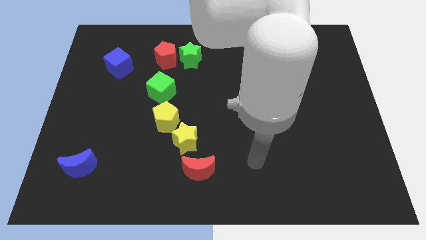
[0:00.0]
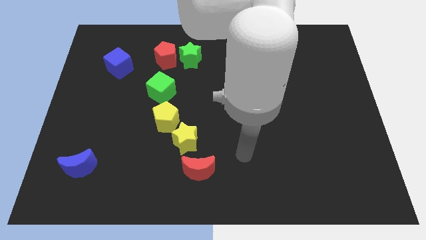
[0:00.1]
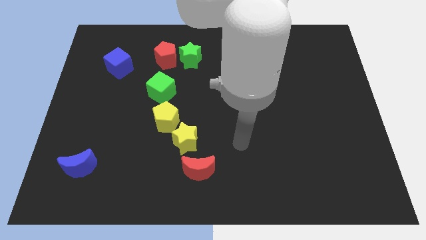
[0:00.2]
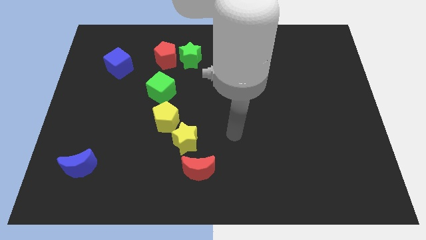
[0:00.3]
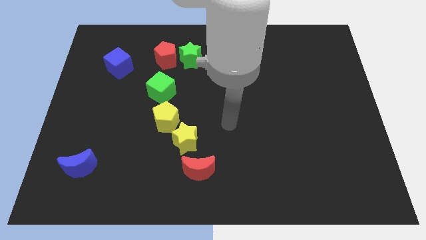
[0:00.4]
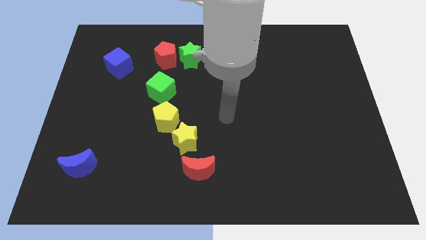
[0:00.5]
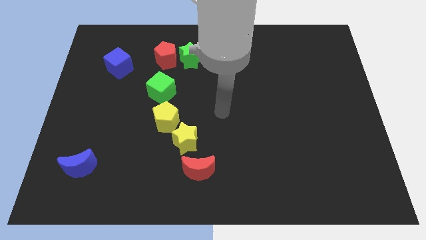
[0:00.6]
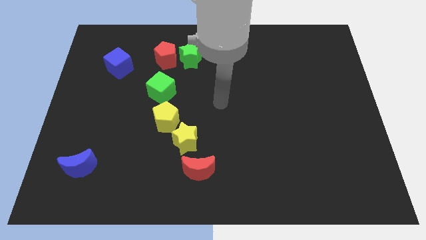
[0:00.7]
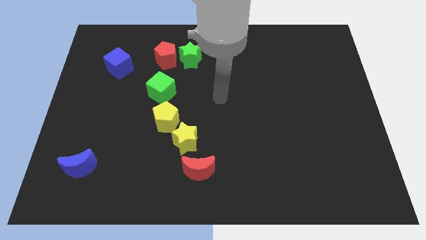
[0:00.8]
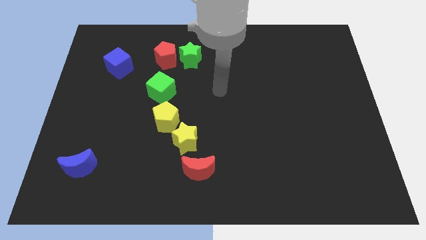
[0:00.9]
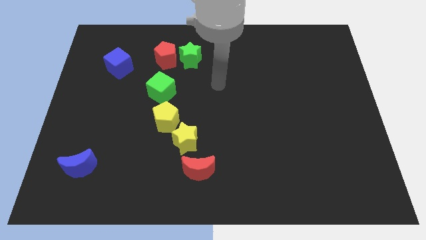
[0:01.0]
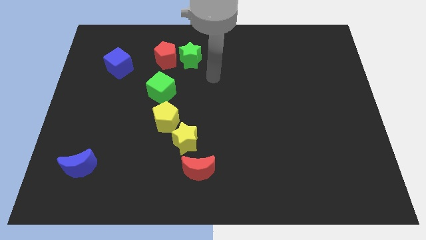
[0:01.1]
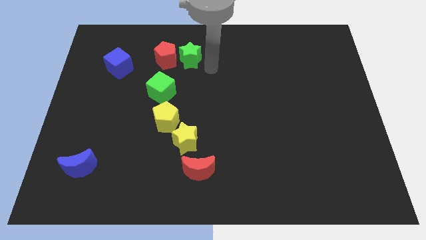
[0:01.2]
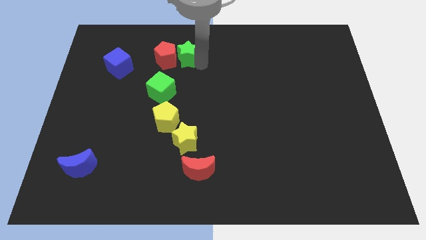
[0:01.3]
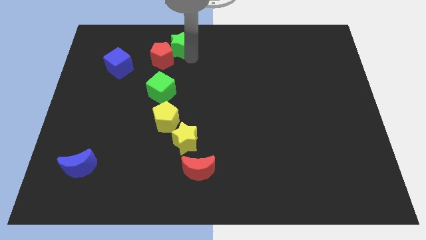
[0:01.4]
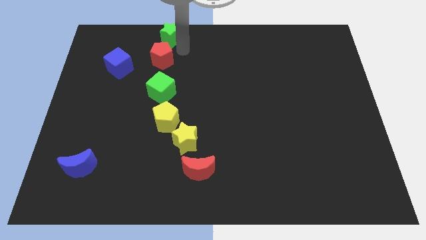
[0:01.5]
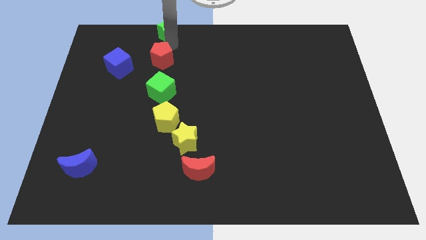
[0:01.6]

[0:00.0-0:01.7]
separate the red pentagon from the green star

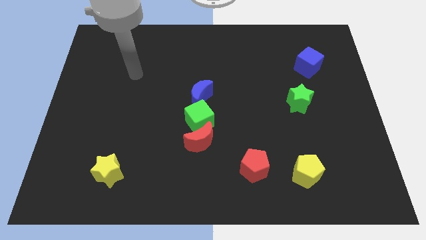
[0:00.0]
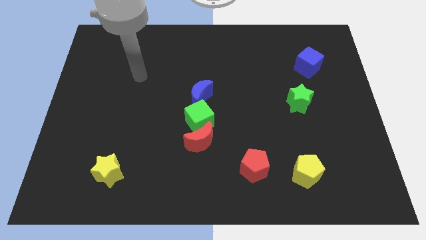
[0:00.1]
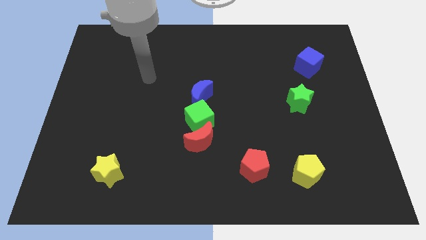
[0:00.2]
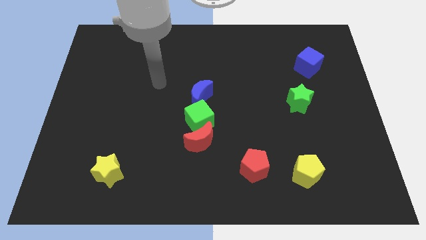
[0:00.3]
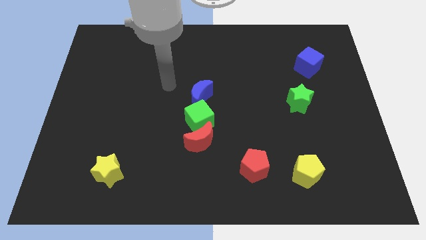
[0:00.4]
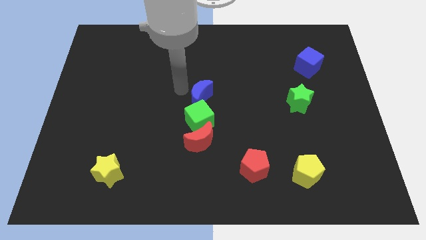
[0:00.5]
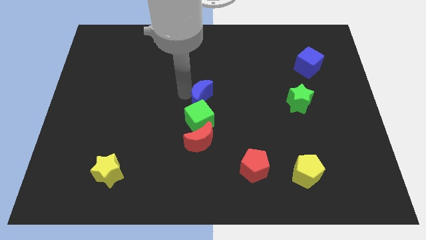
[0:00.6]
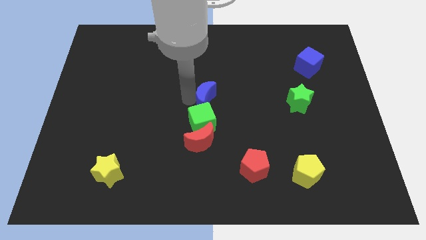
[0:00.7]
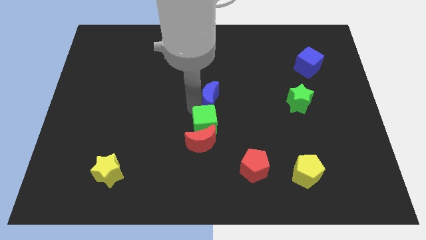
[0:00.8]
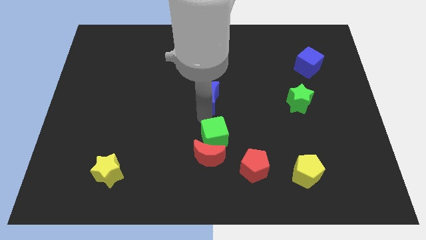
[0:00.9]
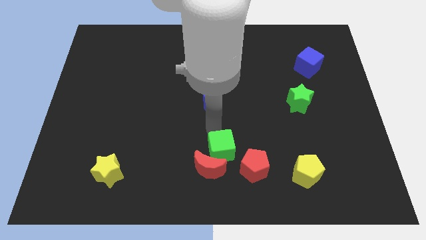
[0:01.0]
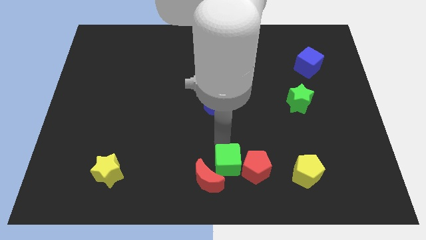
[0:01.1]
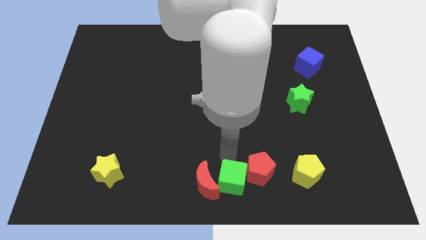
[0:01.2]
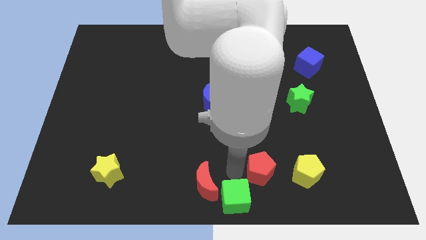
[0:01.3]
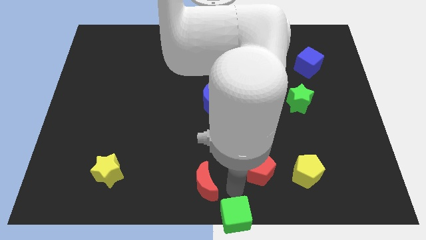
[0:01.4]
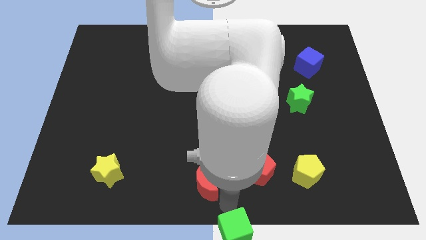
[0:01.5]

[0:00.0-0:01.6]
move the red moon away from the green cube

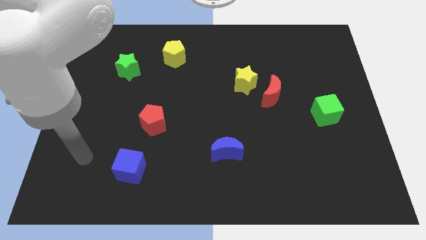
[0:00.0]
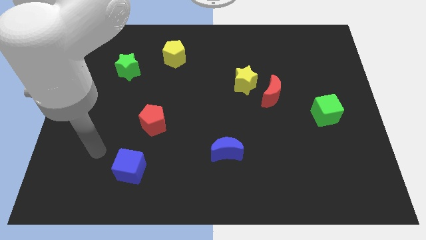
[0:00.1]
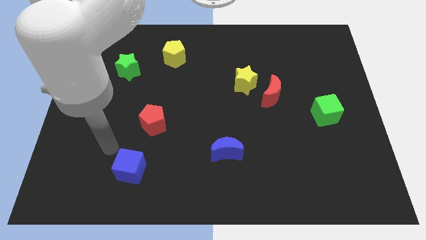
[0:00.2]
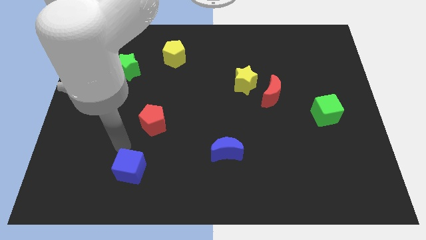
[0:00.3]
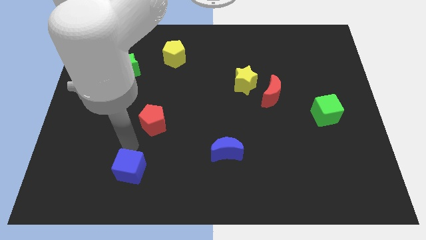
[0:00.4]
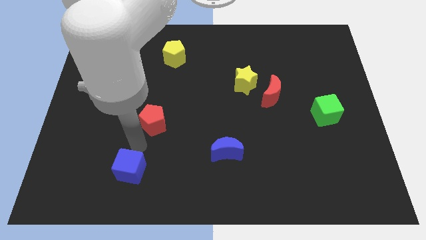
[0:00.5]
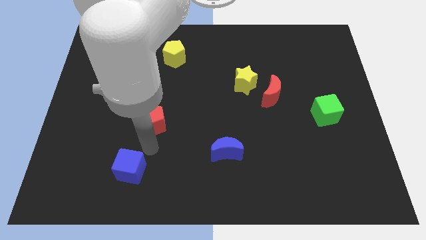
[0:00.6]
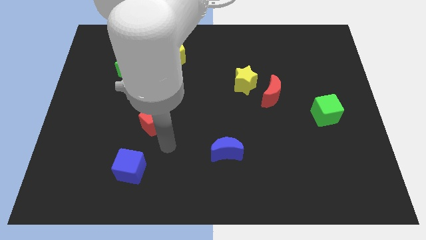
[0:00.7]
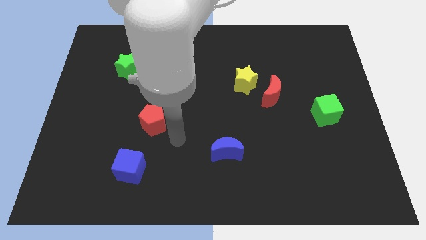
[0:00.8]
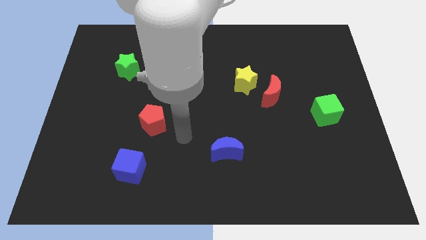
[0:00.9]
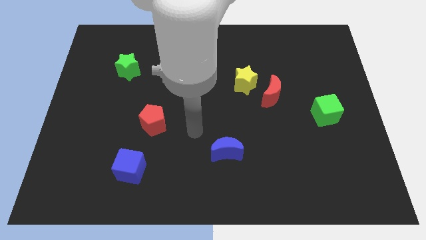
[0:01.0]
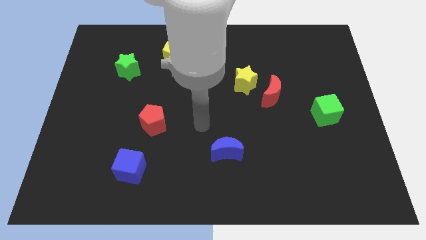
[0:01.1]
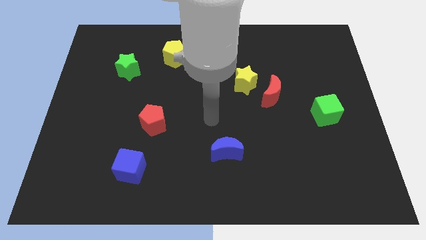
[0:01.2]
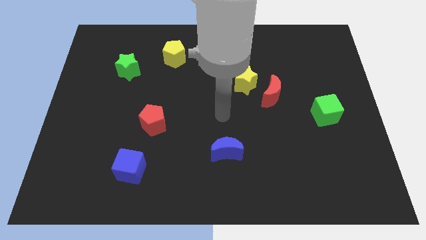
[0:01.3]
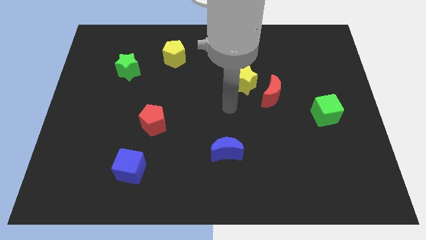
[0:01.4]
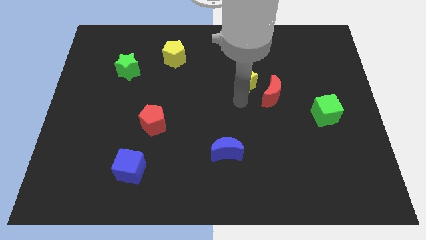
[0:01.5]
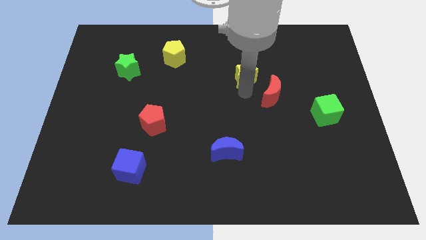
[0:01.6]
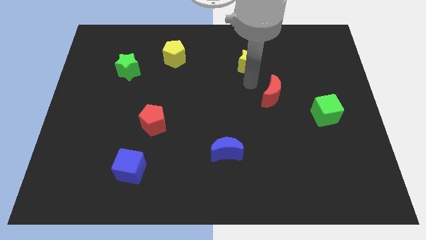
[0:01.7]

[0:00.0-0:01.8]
separate the red moon from the yellow star

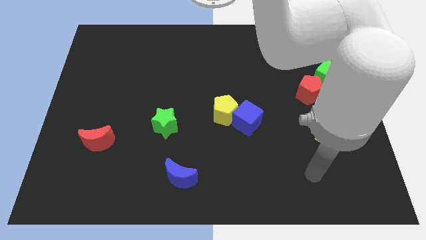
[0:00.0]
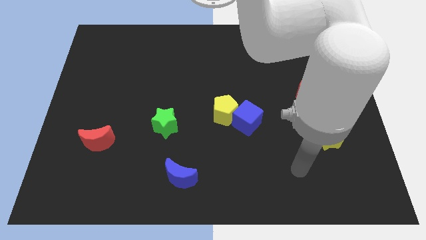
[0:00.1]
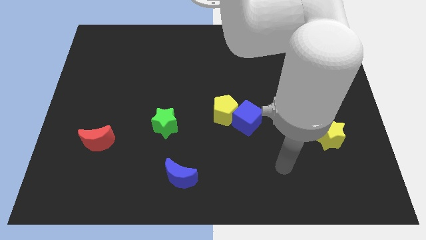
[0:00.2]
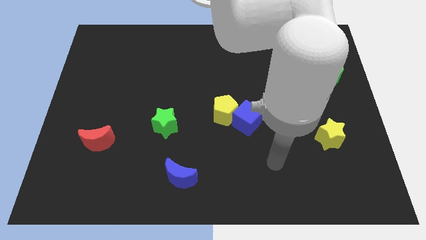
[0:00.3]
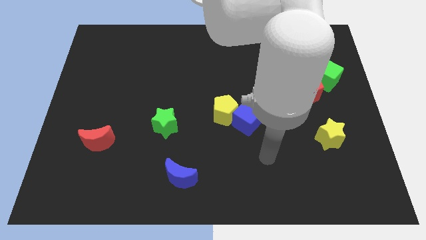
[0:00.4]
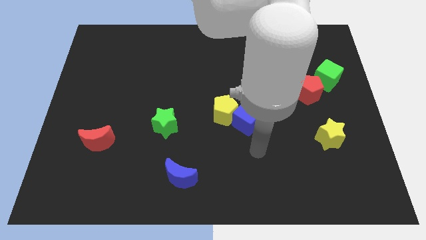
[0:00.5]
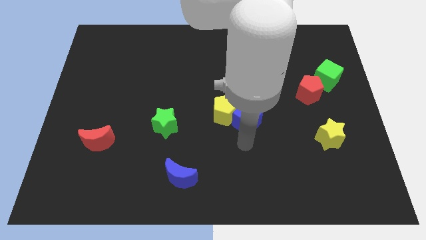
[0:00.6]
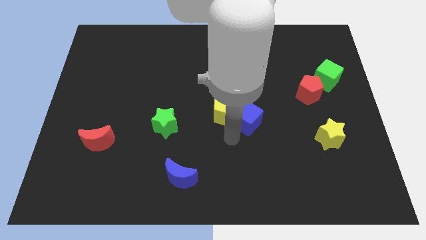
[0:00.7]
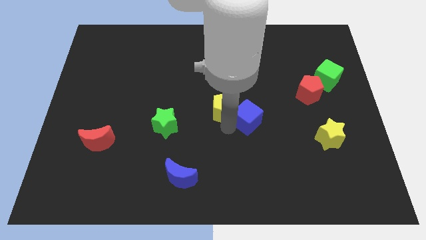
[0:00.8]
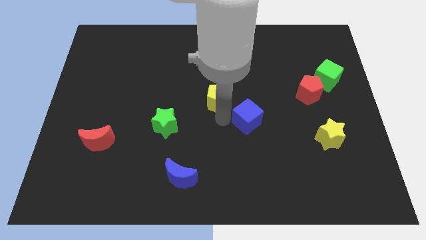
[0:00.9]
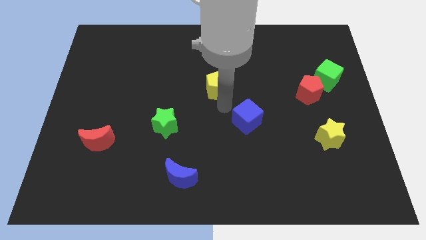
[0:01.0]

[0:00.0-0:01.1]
move the blue cube away from the yellow pentagon

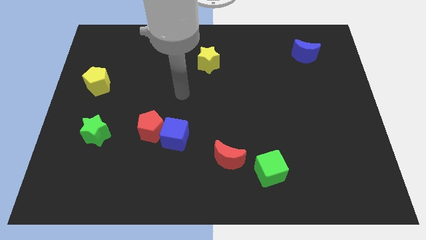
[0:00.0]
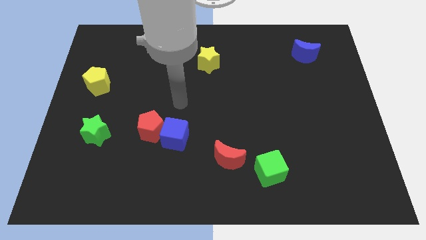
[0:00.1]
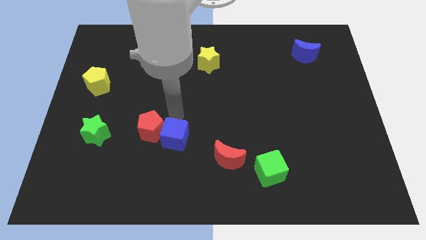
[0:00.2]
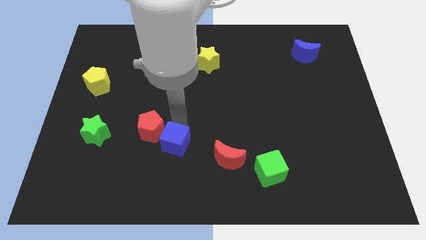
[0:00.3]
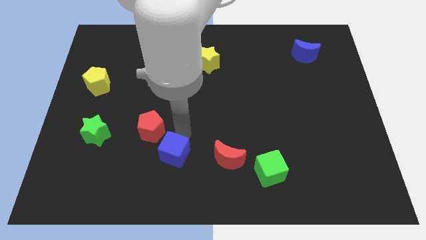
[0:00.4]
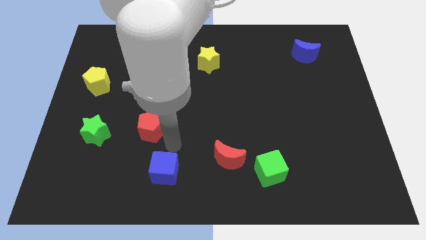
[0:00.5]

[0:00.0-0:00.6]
pull the red pentagon apart from the blue cube

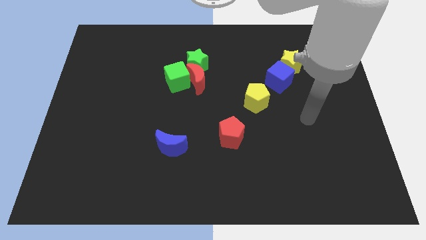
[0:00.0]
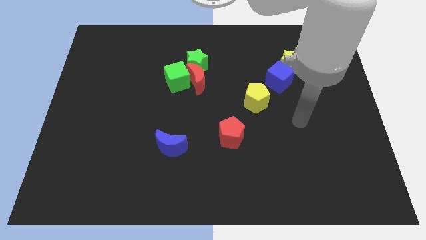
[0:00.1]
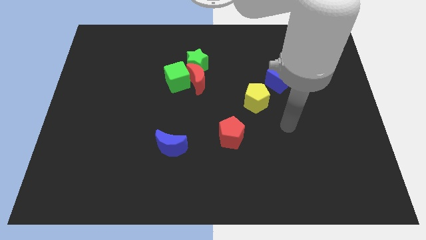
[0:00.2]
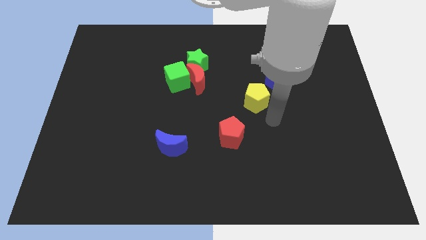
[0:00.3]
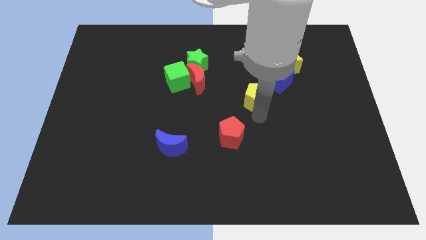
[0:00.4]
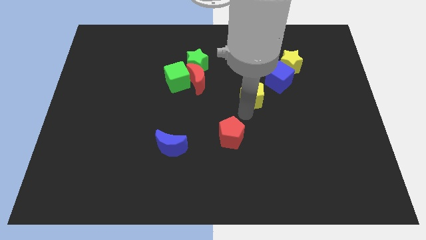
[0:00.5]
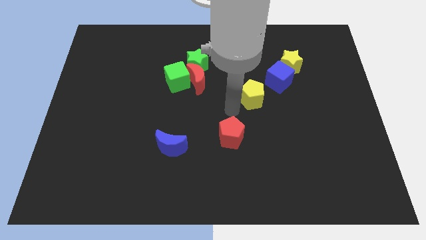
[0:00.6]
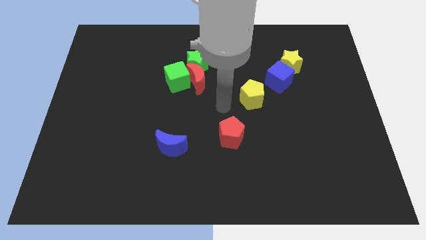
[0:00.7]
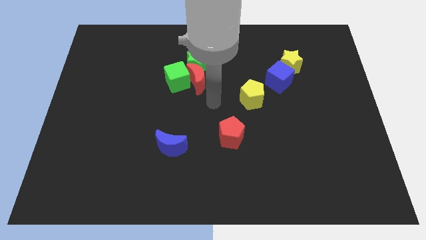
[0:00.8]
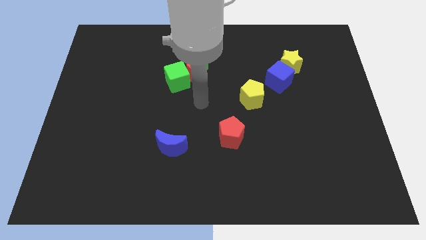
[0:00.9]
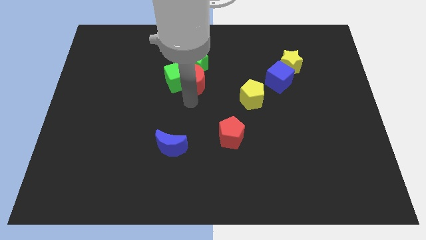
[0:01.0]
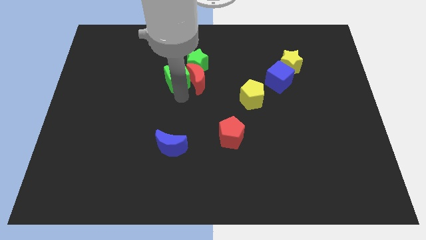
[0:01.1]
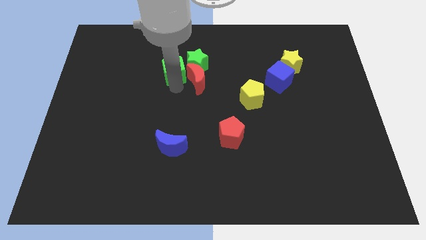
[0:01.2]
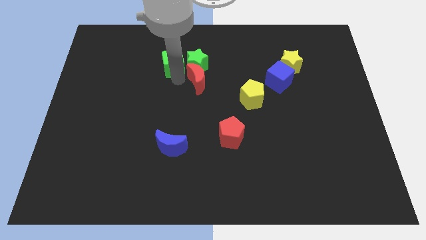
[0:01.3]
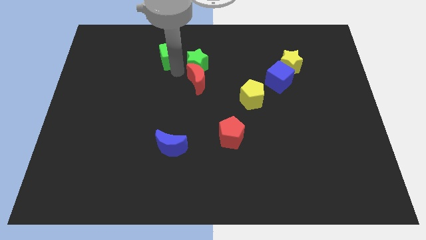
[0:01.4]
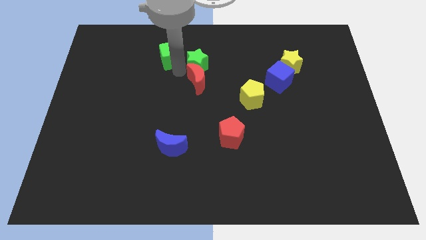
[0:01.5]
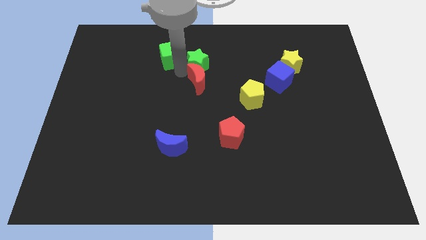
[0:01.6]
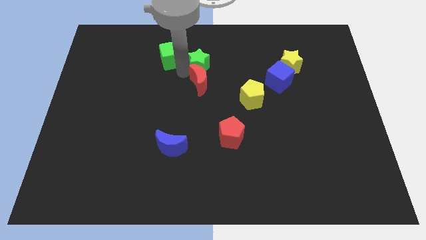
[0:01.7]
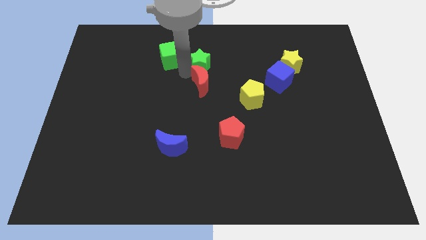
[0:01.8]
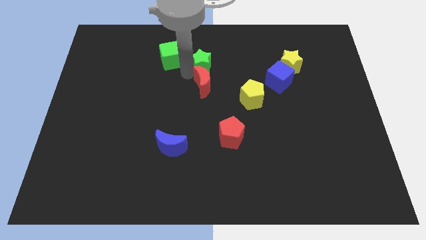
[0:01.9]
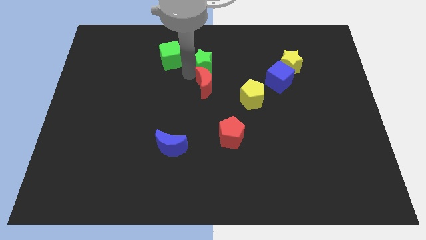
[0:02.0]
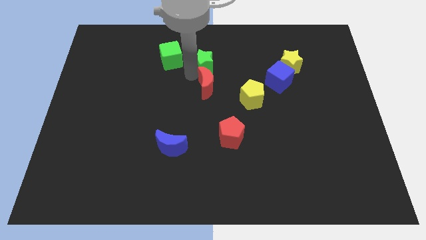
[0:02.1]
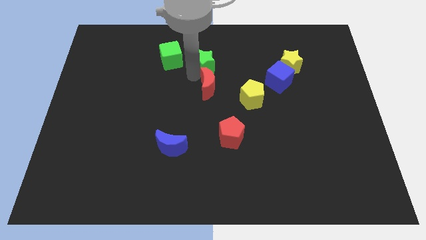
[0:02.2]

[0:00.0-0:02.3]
move the red moon away from the green cube and green star
